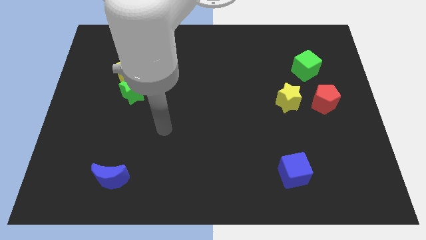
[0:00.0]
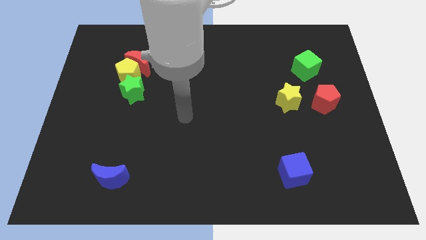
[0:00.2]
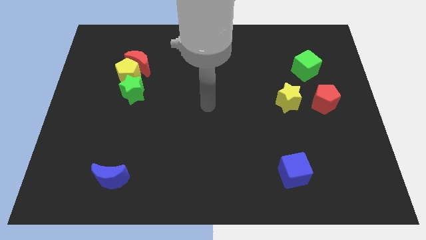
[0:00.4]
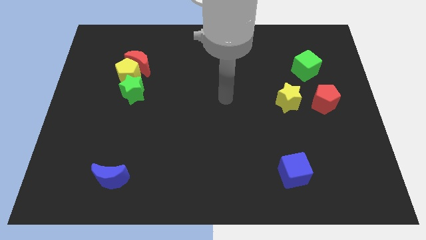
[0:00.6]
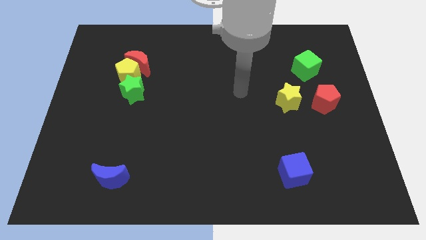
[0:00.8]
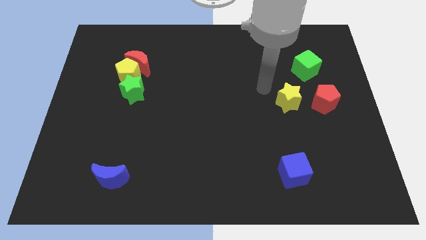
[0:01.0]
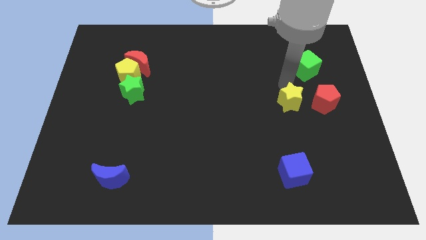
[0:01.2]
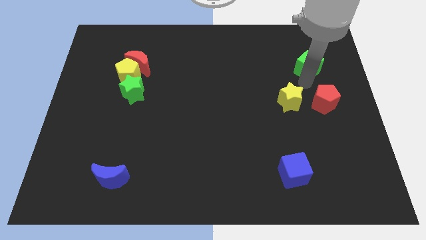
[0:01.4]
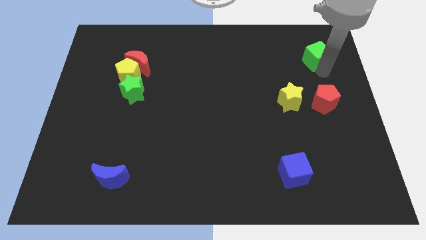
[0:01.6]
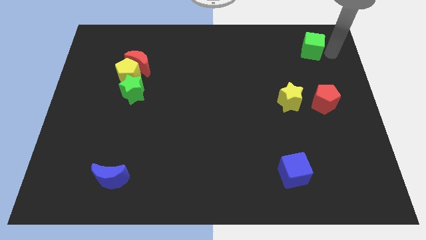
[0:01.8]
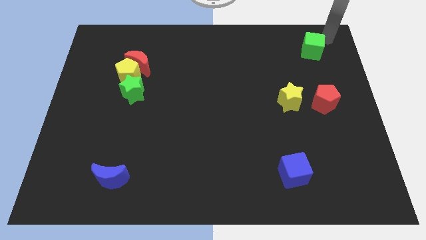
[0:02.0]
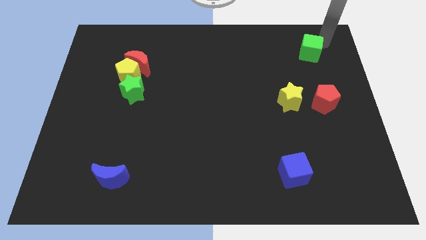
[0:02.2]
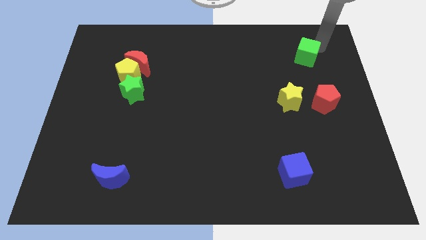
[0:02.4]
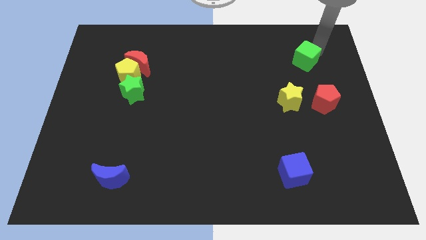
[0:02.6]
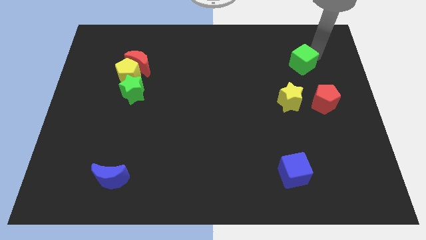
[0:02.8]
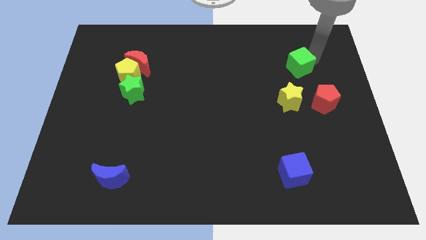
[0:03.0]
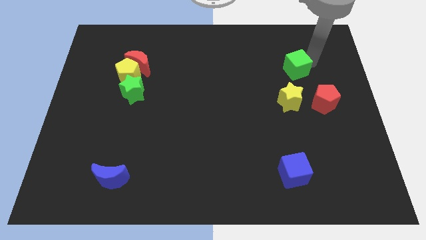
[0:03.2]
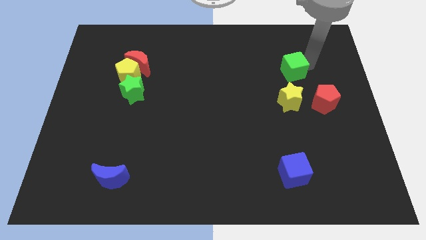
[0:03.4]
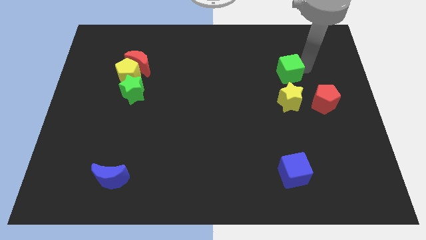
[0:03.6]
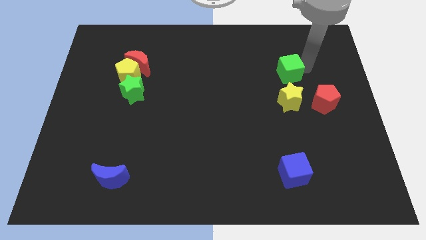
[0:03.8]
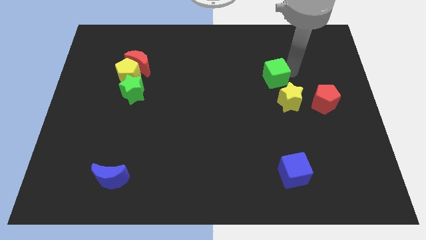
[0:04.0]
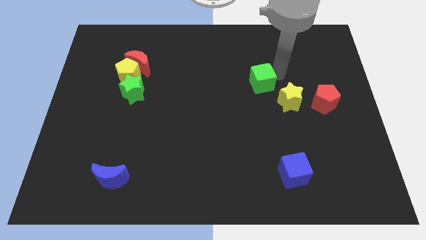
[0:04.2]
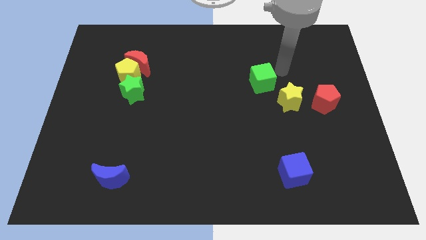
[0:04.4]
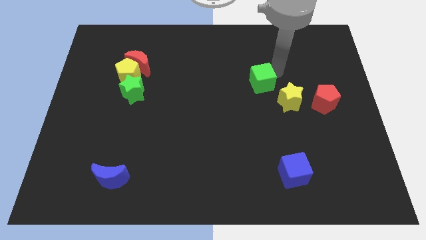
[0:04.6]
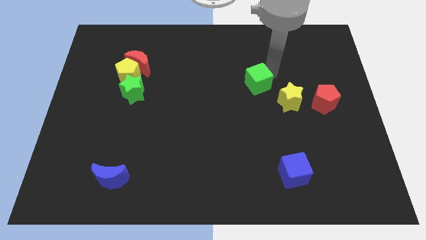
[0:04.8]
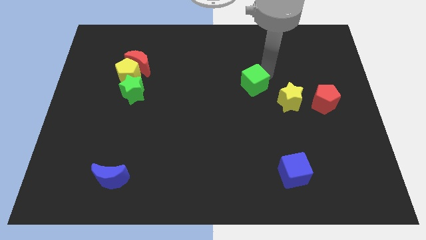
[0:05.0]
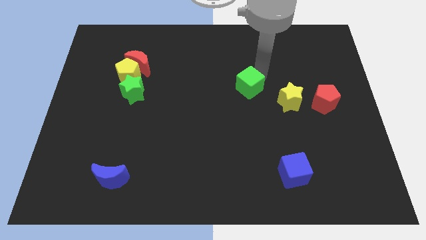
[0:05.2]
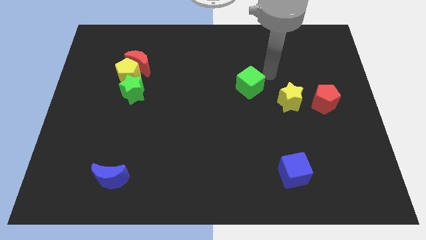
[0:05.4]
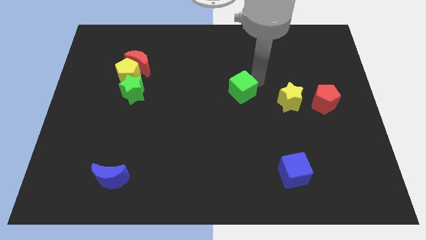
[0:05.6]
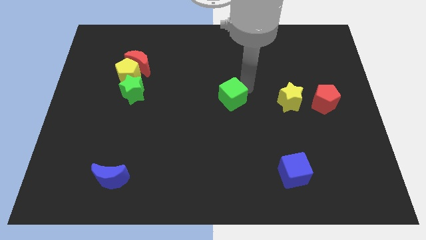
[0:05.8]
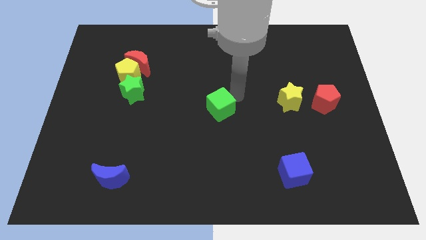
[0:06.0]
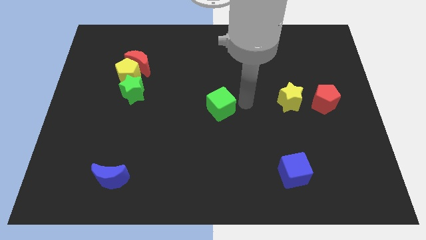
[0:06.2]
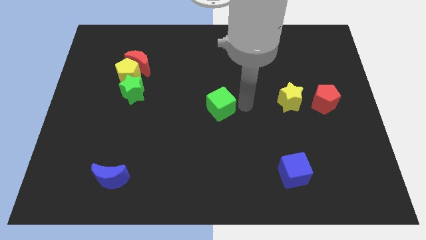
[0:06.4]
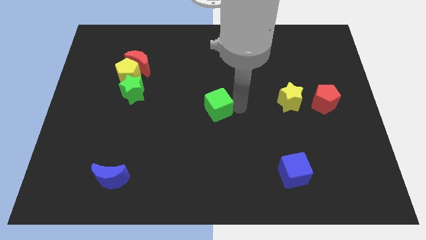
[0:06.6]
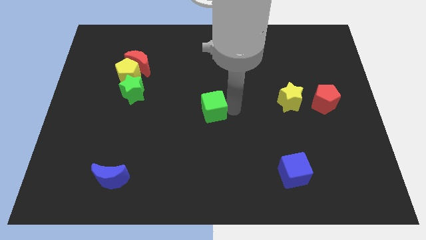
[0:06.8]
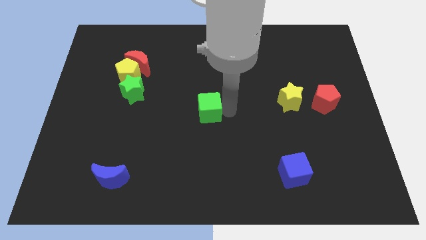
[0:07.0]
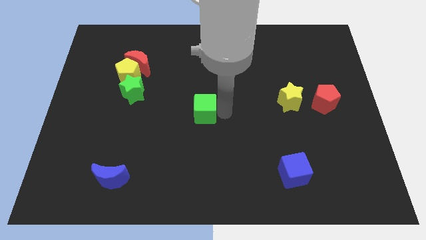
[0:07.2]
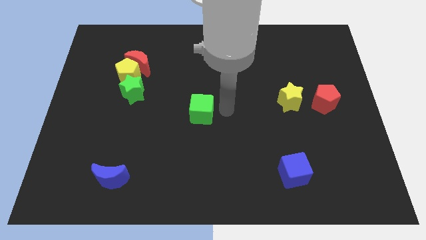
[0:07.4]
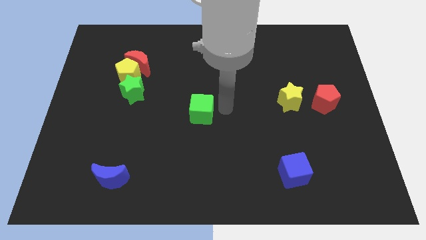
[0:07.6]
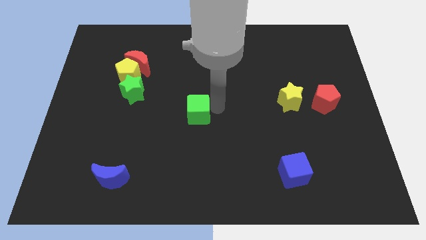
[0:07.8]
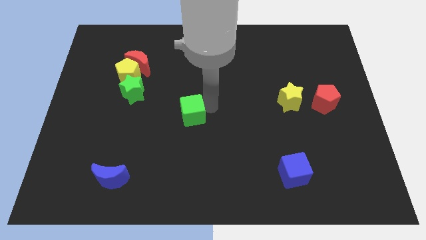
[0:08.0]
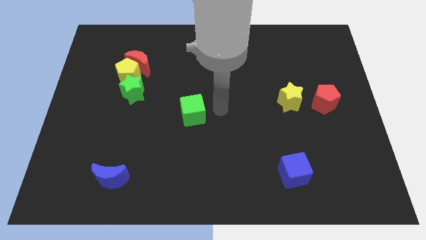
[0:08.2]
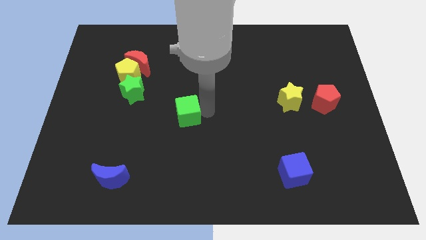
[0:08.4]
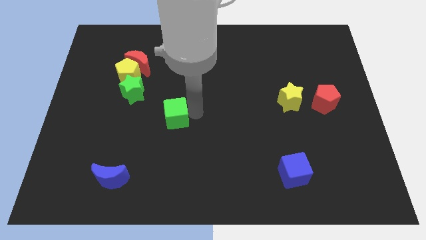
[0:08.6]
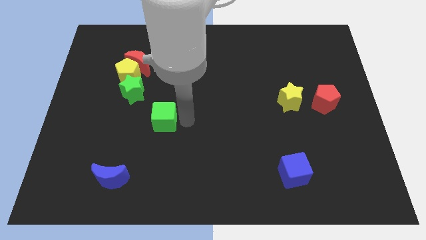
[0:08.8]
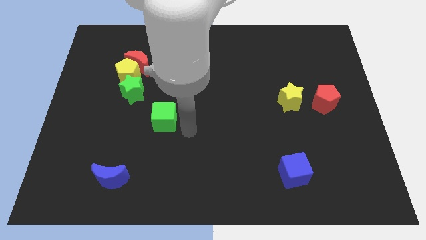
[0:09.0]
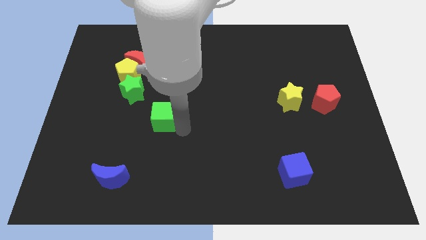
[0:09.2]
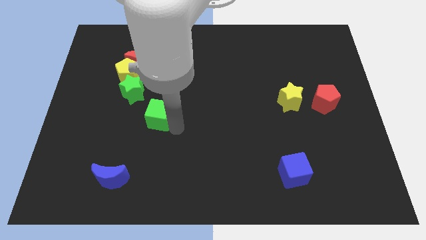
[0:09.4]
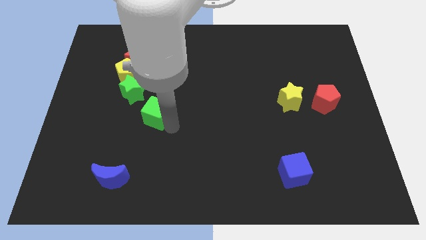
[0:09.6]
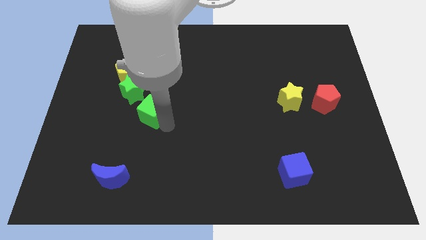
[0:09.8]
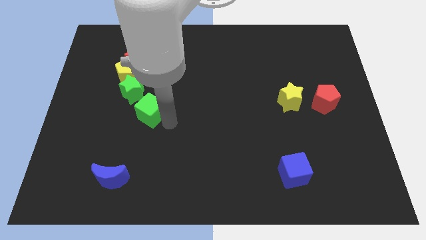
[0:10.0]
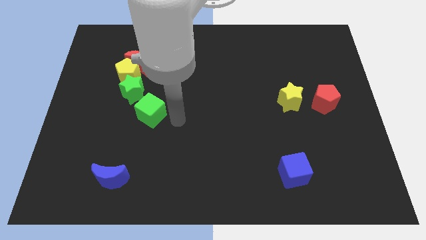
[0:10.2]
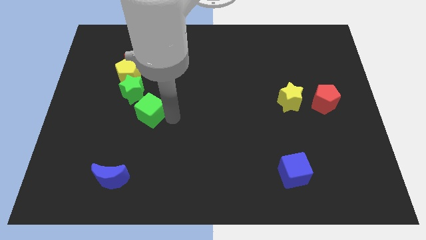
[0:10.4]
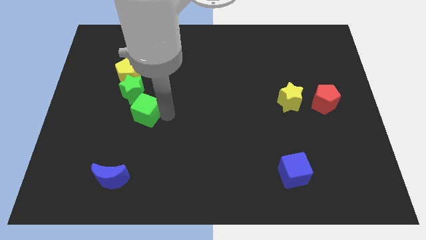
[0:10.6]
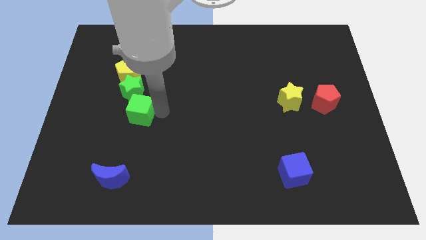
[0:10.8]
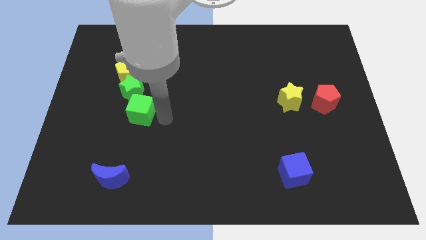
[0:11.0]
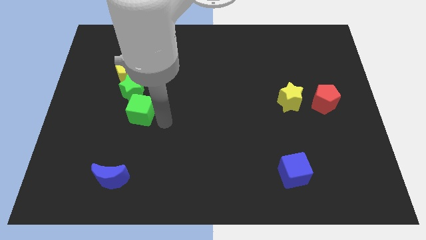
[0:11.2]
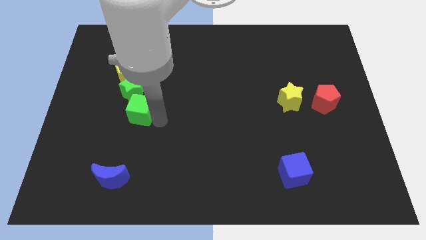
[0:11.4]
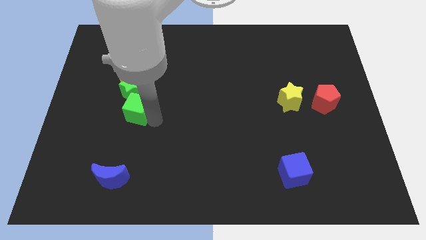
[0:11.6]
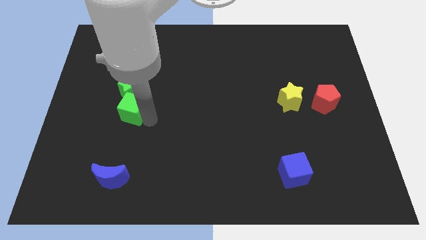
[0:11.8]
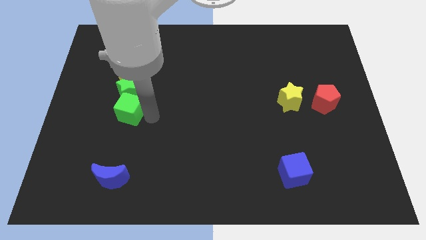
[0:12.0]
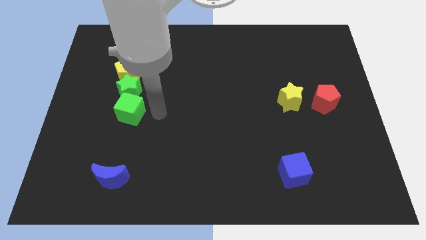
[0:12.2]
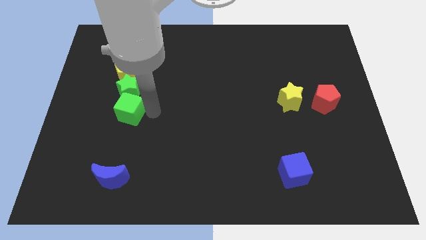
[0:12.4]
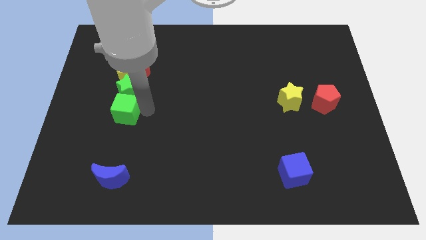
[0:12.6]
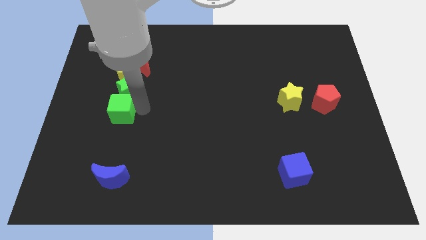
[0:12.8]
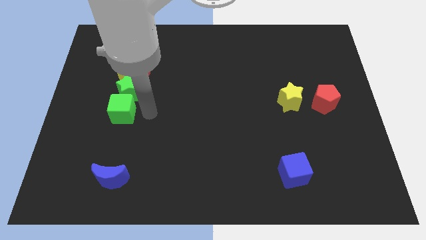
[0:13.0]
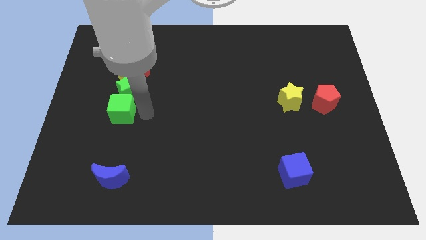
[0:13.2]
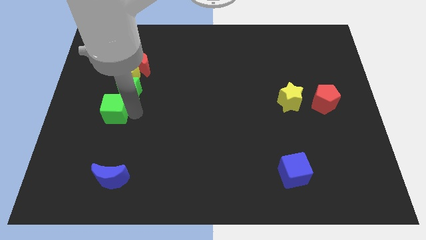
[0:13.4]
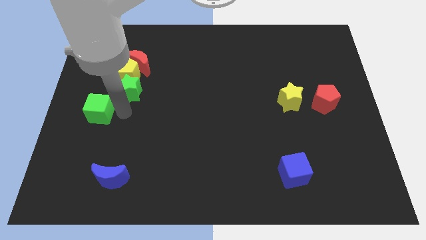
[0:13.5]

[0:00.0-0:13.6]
push the green cube to the left side of the board
